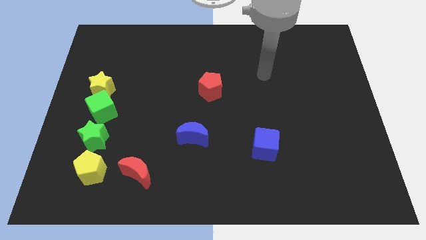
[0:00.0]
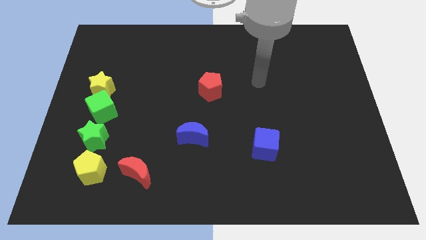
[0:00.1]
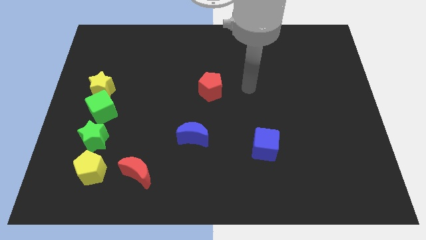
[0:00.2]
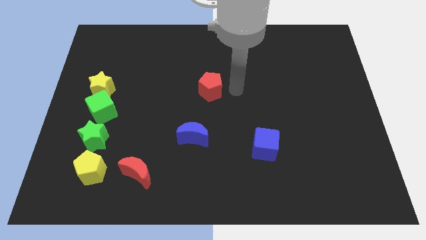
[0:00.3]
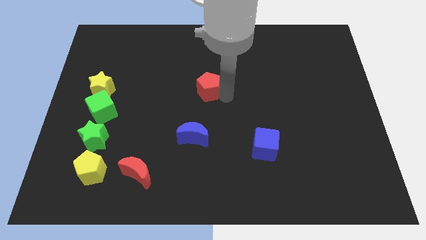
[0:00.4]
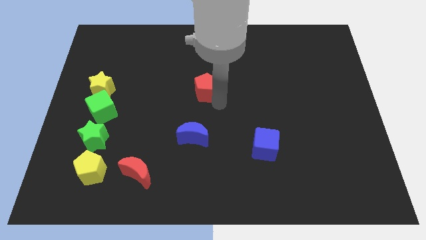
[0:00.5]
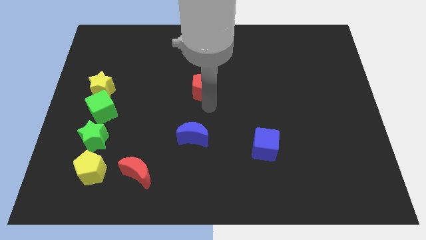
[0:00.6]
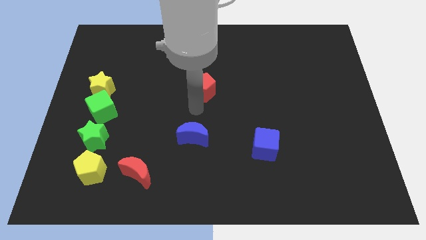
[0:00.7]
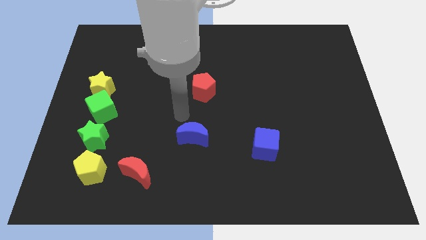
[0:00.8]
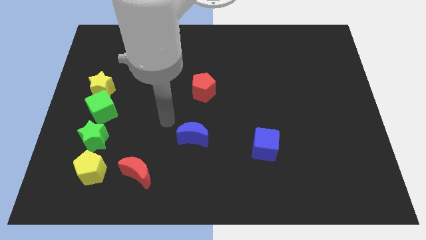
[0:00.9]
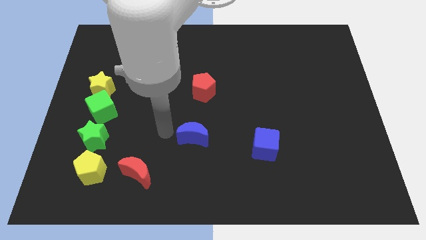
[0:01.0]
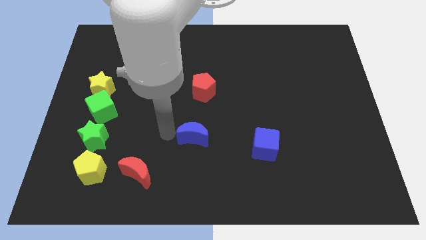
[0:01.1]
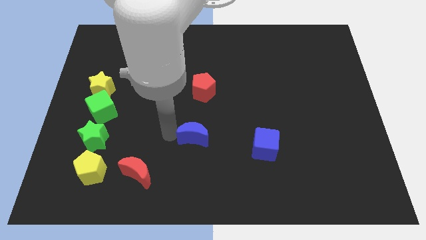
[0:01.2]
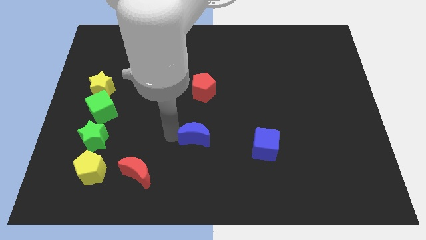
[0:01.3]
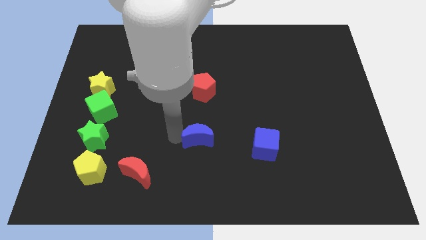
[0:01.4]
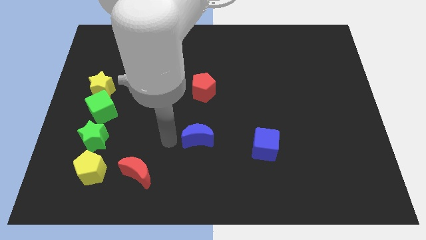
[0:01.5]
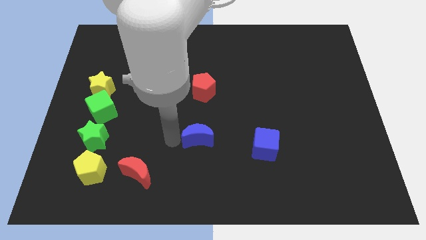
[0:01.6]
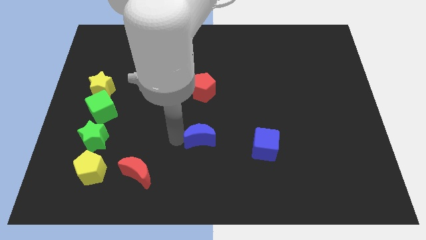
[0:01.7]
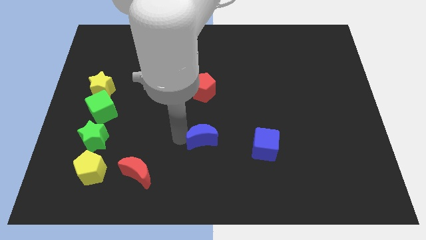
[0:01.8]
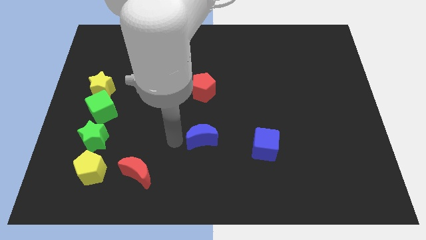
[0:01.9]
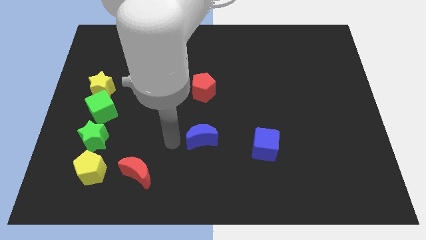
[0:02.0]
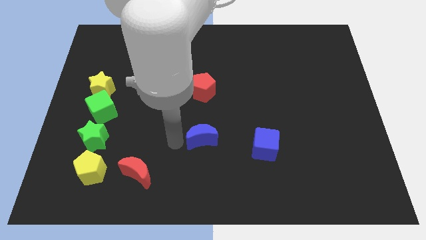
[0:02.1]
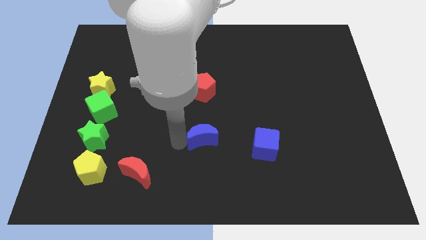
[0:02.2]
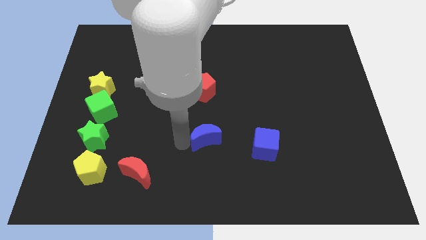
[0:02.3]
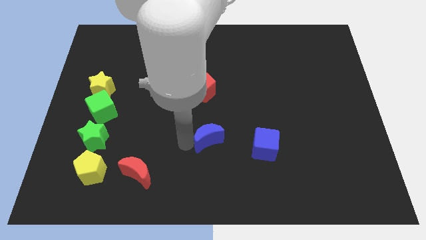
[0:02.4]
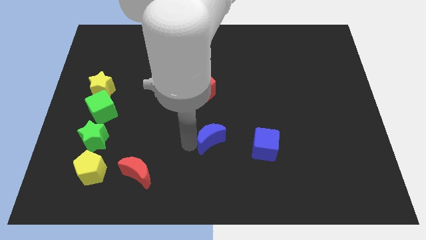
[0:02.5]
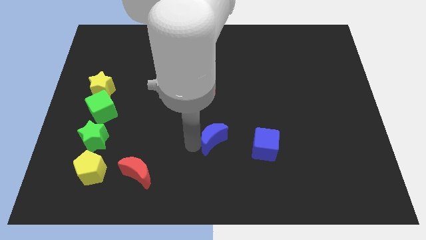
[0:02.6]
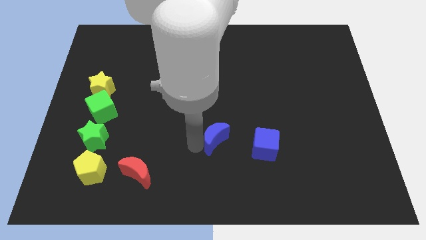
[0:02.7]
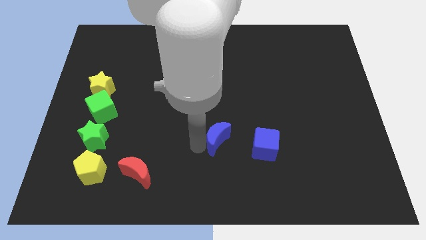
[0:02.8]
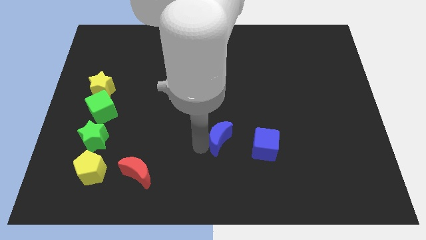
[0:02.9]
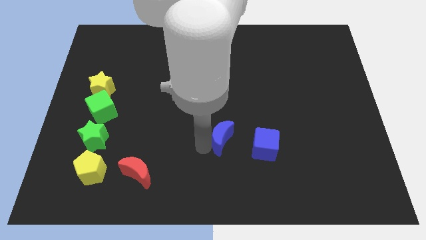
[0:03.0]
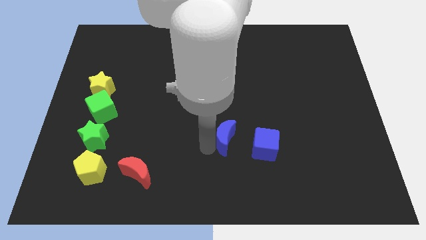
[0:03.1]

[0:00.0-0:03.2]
slightly move the blue moon right

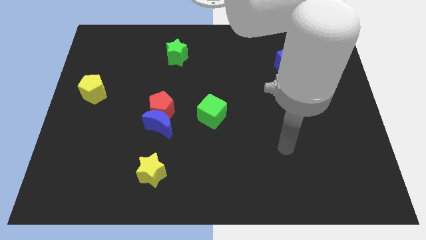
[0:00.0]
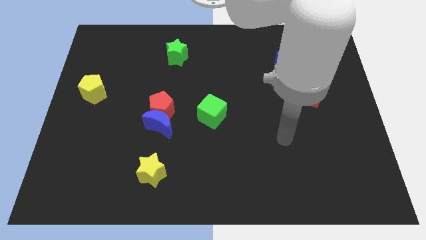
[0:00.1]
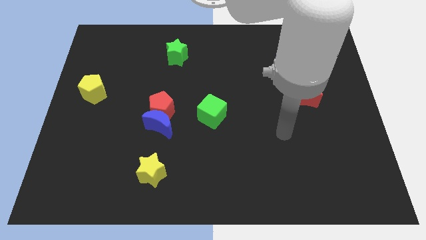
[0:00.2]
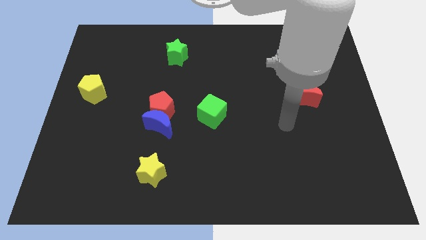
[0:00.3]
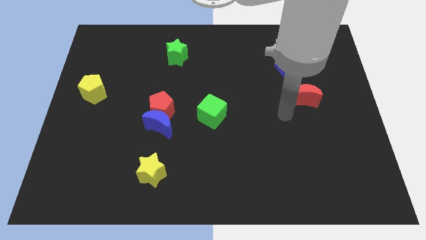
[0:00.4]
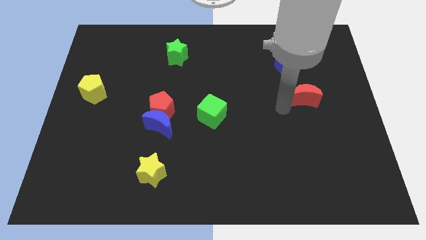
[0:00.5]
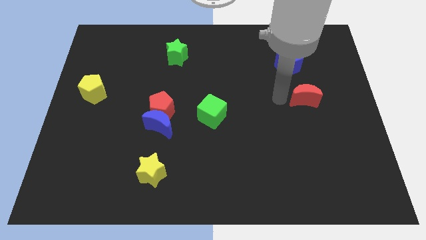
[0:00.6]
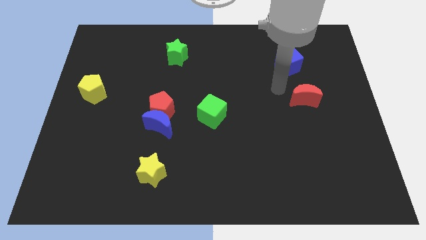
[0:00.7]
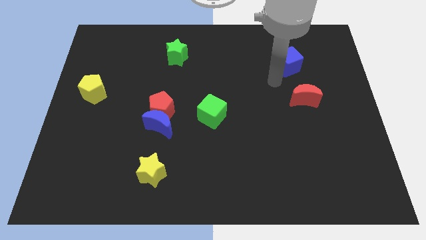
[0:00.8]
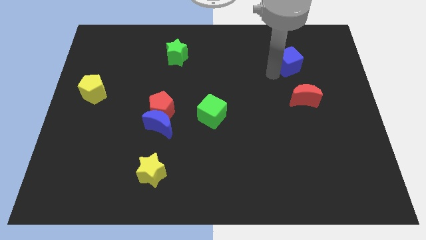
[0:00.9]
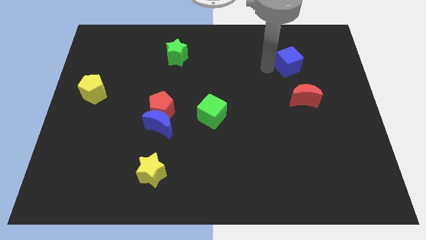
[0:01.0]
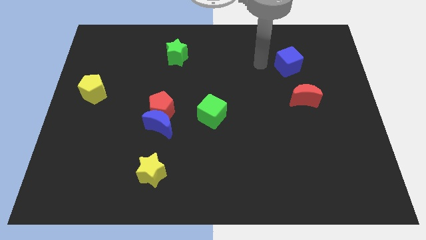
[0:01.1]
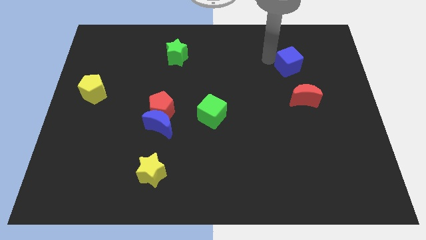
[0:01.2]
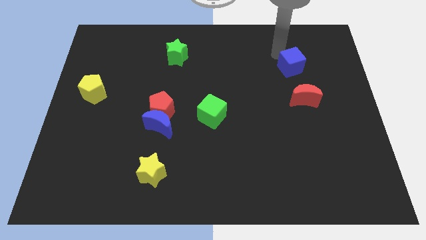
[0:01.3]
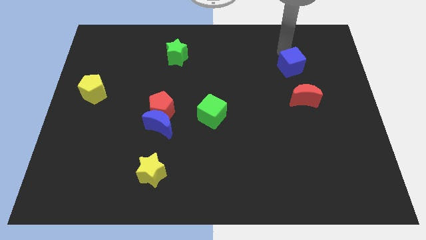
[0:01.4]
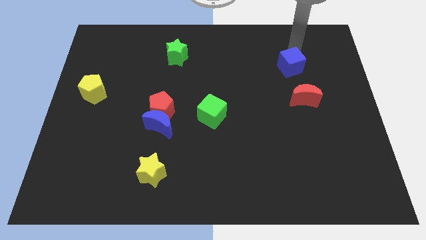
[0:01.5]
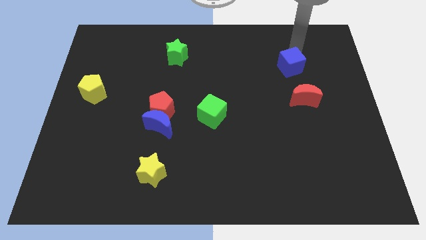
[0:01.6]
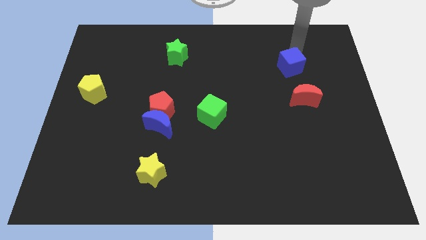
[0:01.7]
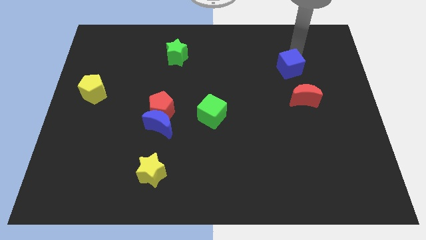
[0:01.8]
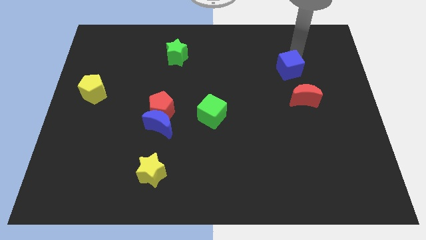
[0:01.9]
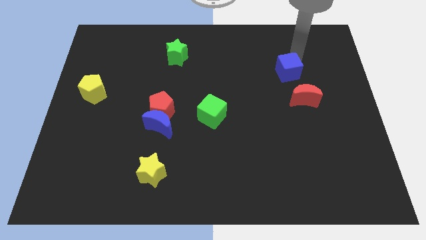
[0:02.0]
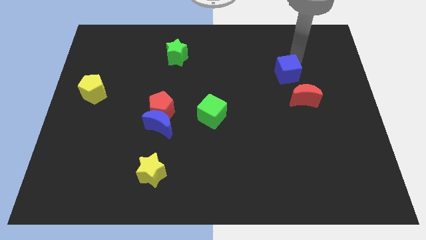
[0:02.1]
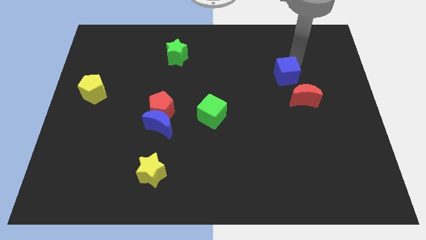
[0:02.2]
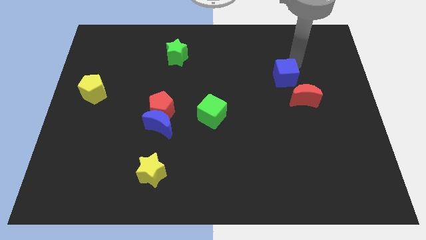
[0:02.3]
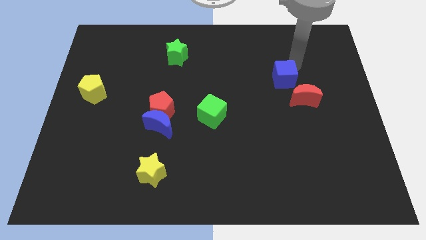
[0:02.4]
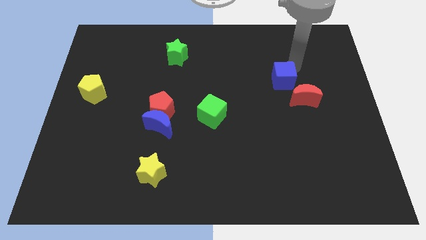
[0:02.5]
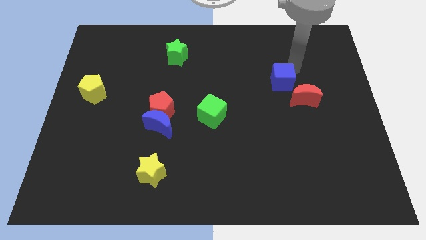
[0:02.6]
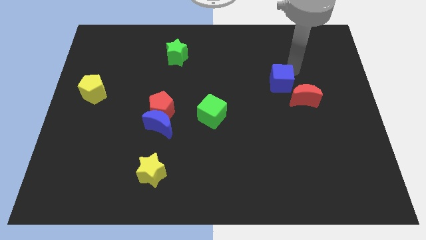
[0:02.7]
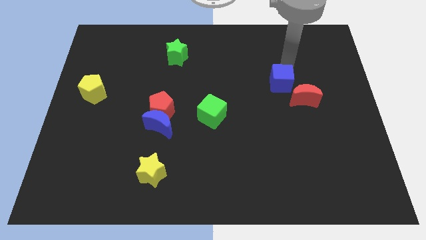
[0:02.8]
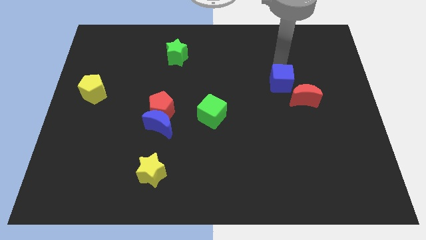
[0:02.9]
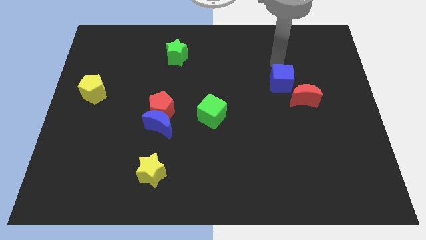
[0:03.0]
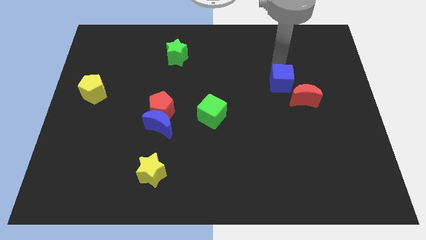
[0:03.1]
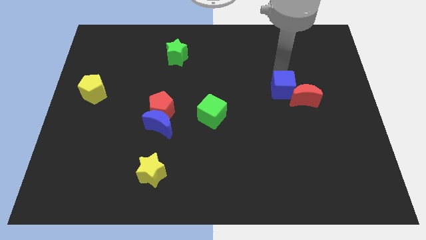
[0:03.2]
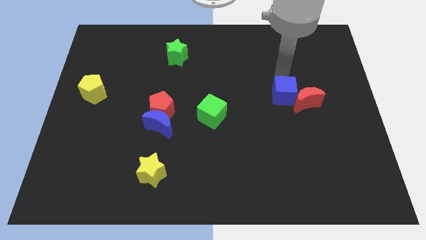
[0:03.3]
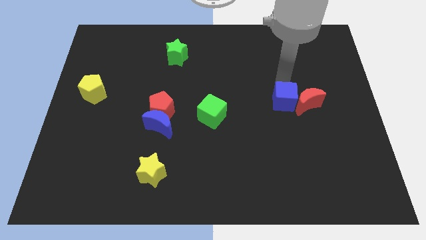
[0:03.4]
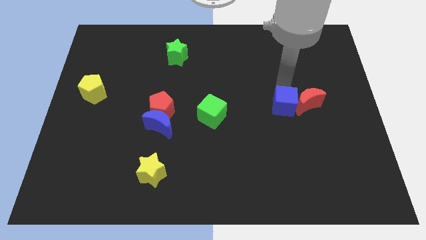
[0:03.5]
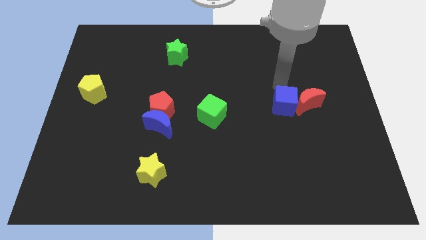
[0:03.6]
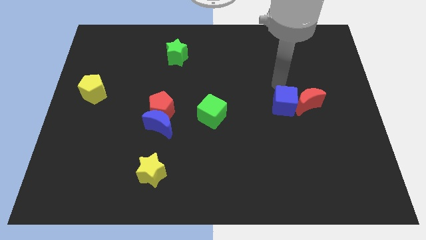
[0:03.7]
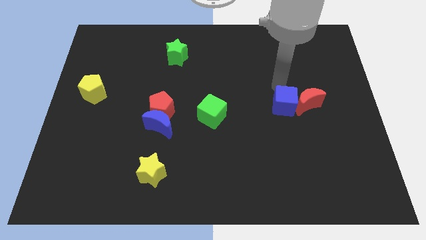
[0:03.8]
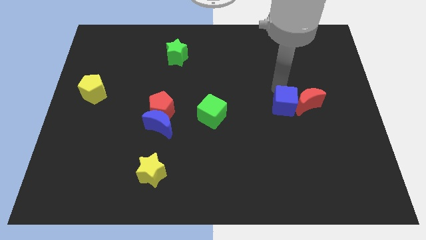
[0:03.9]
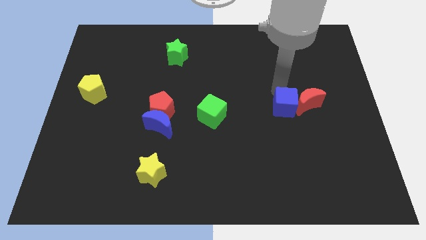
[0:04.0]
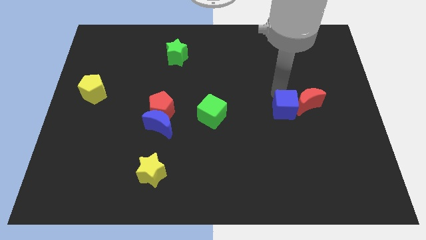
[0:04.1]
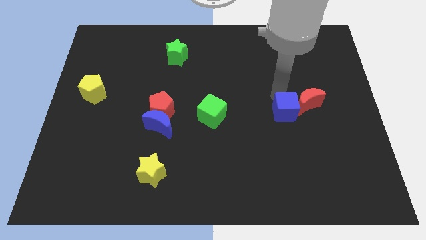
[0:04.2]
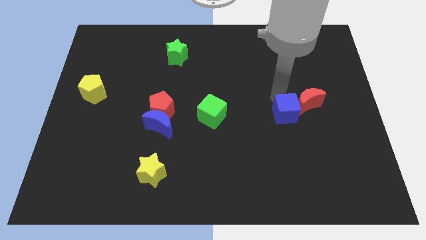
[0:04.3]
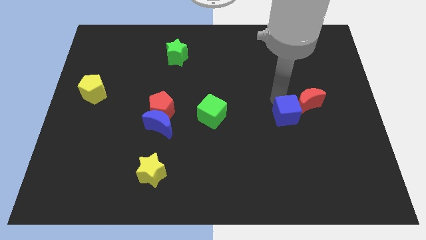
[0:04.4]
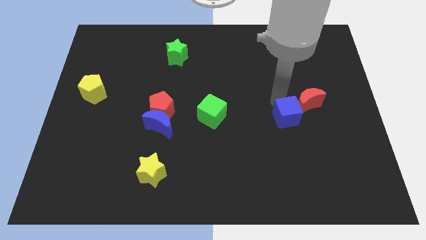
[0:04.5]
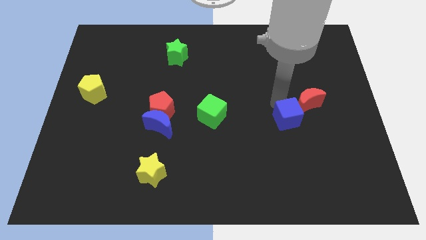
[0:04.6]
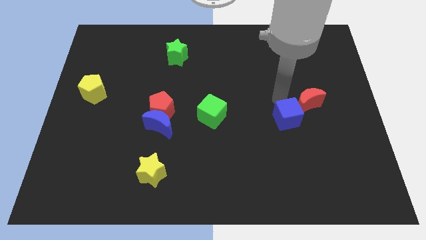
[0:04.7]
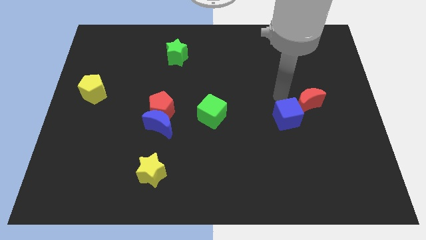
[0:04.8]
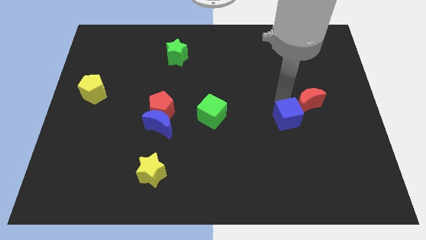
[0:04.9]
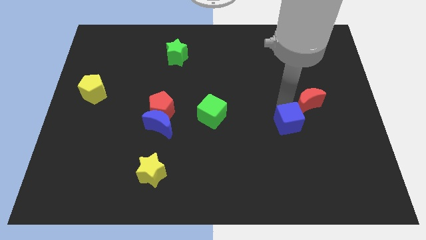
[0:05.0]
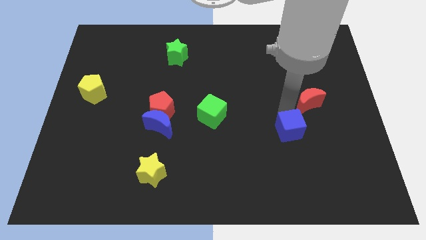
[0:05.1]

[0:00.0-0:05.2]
slide the blue cube downwards

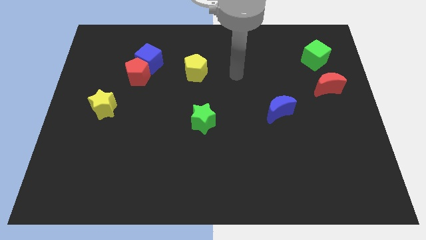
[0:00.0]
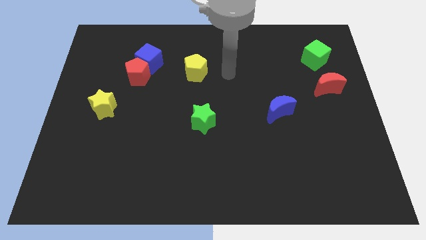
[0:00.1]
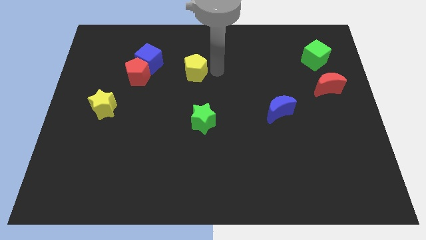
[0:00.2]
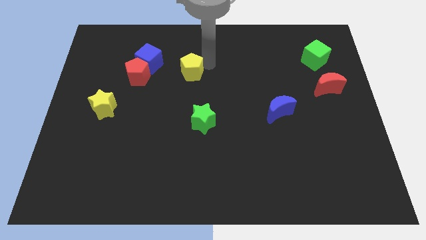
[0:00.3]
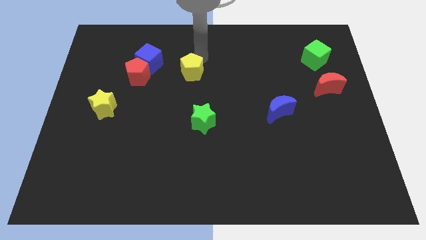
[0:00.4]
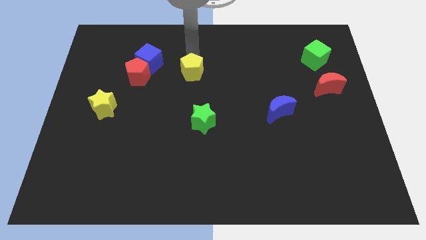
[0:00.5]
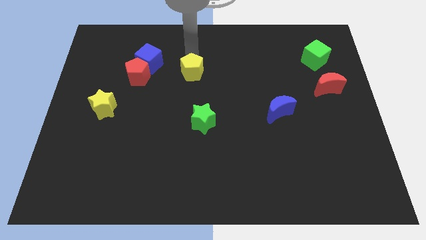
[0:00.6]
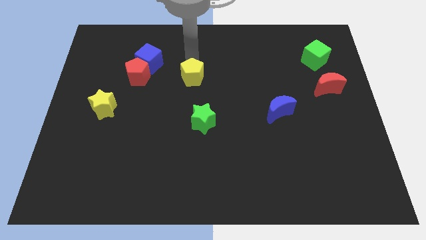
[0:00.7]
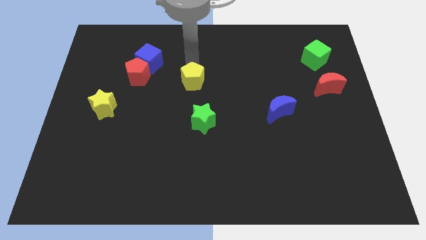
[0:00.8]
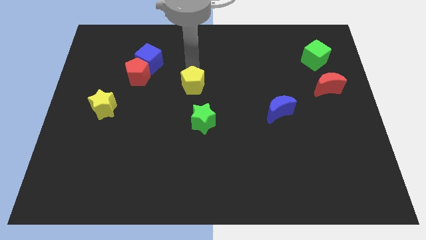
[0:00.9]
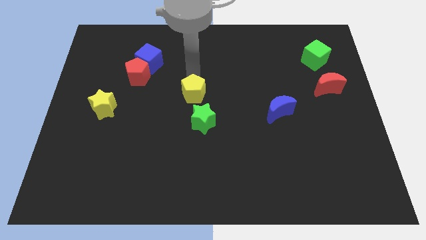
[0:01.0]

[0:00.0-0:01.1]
push the yellow pentagon downwards a bit
